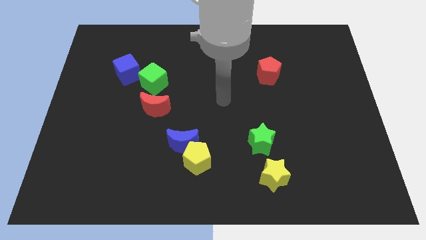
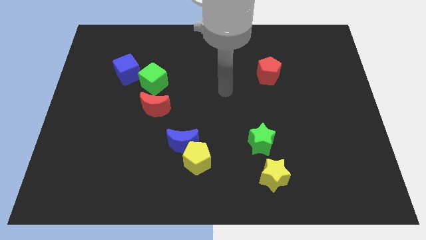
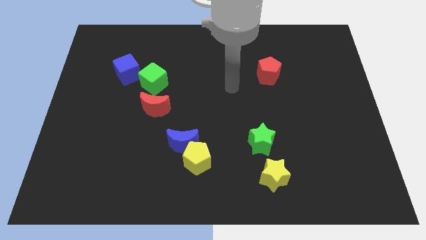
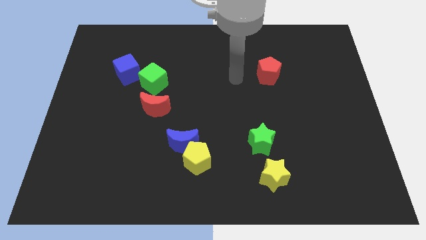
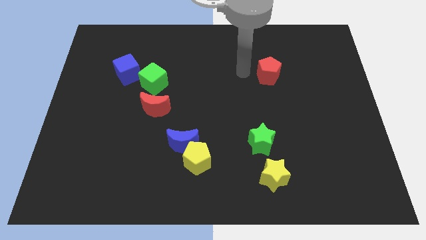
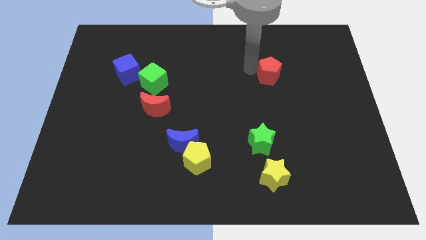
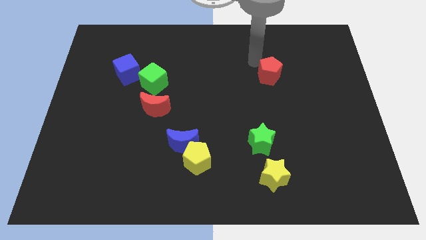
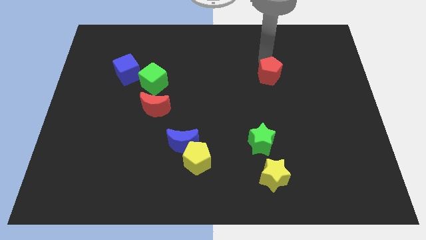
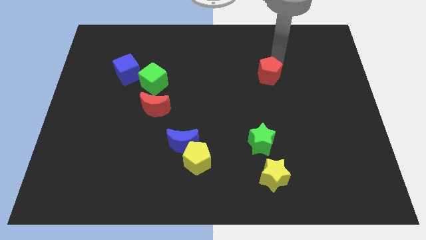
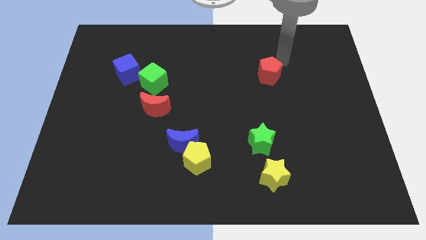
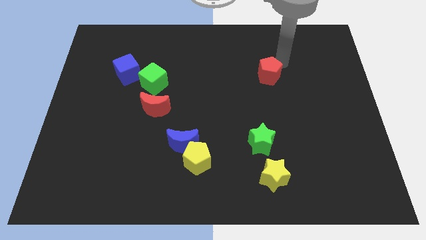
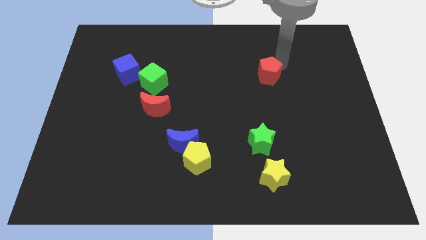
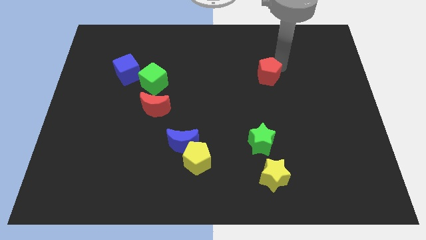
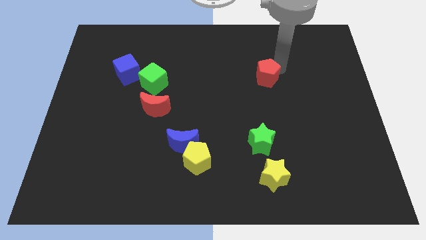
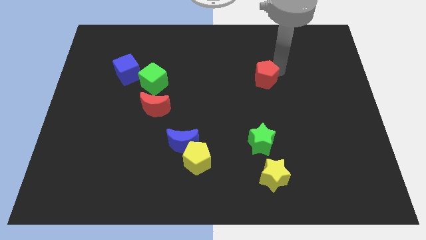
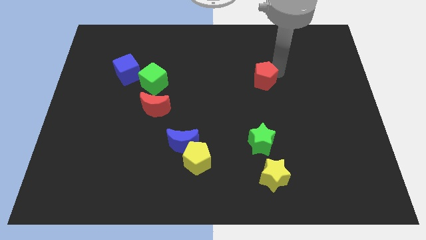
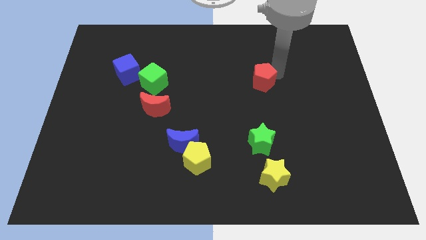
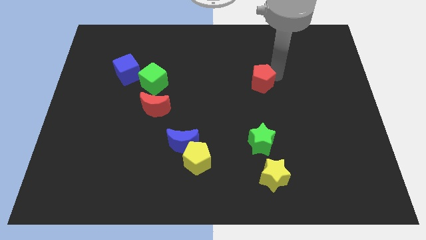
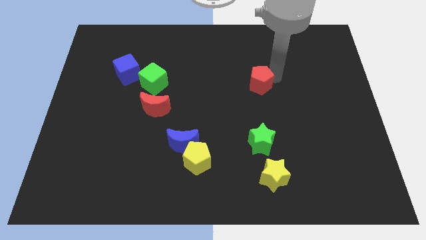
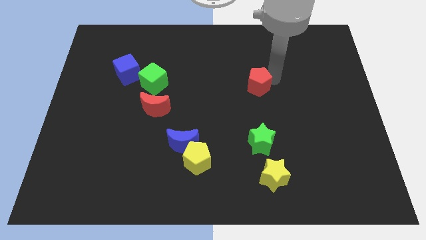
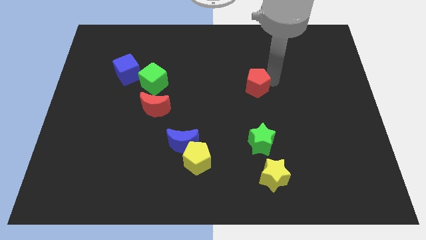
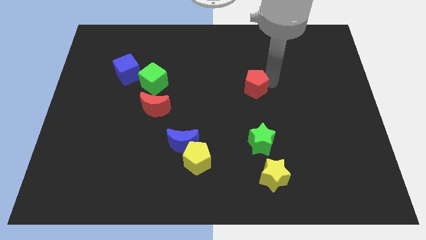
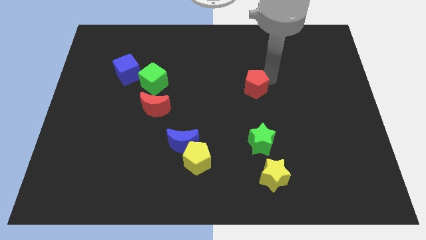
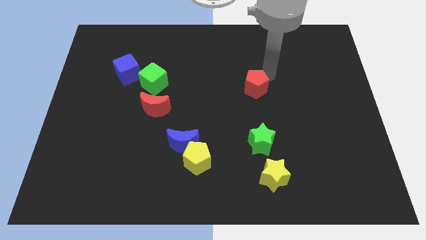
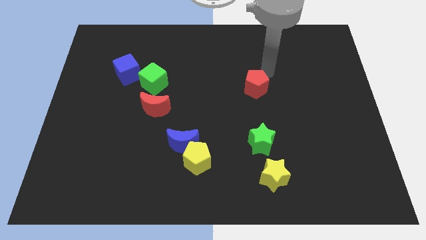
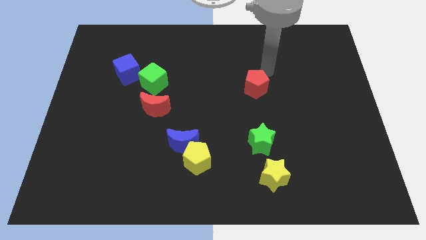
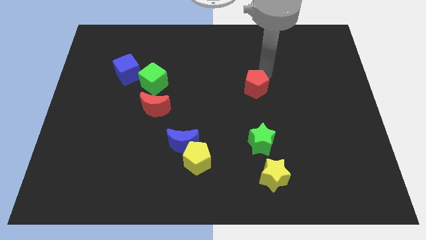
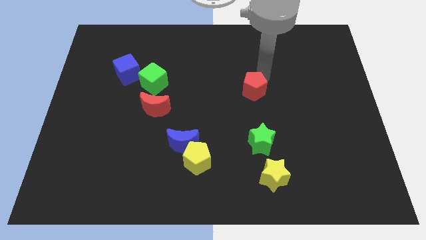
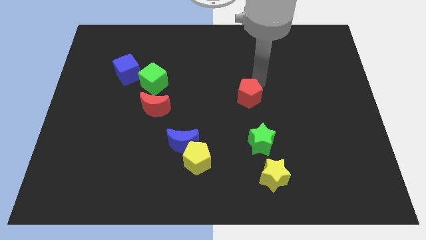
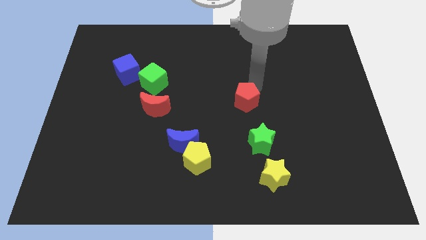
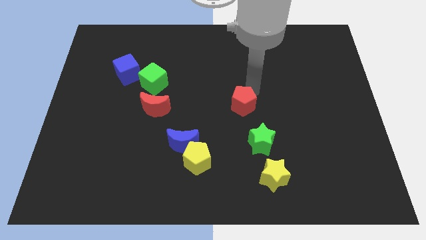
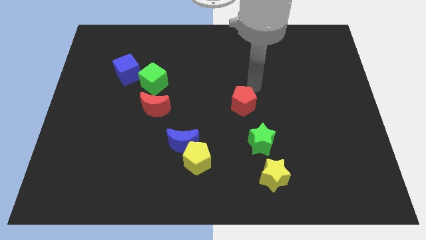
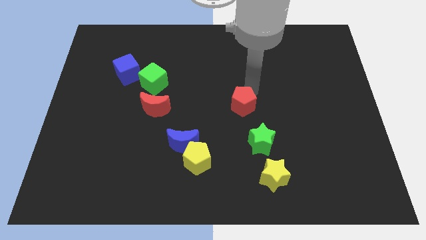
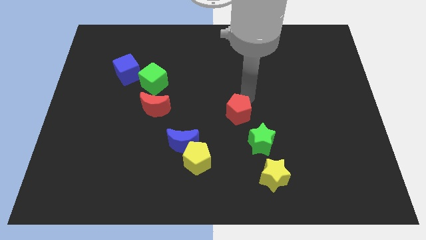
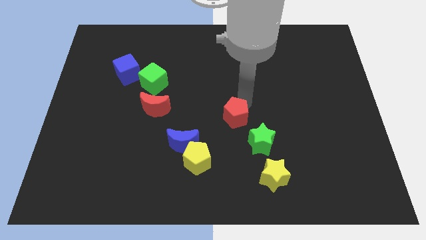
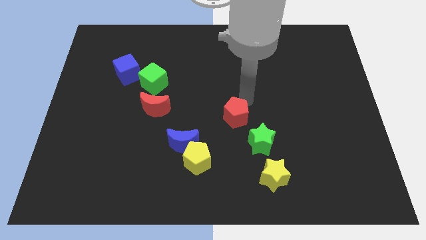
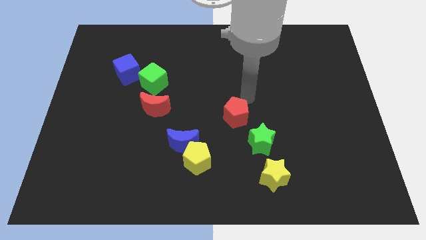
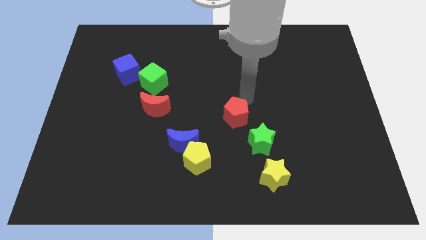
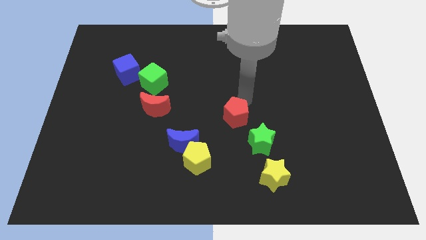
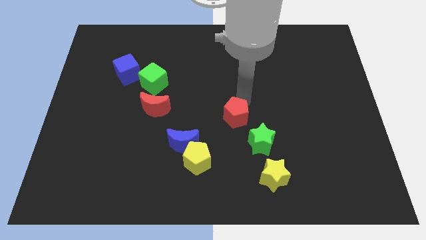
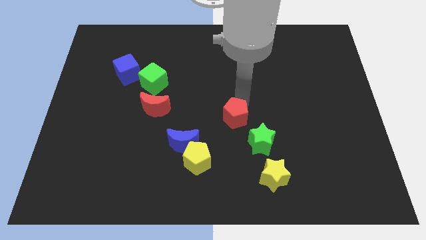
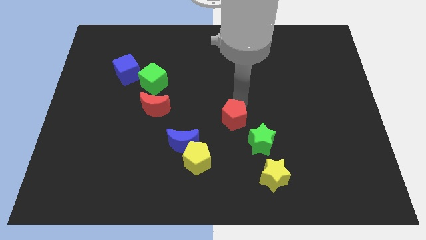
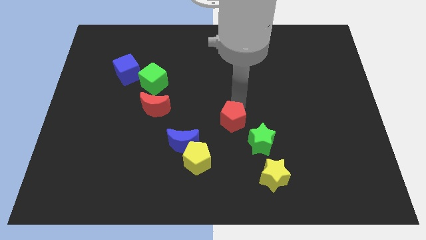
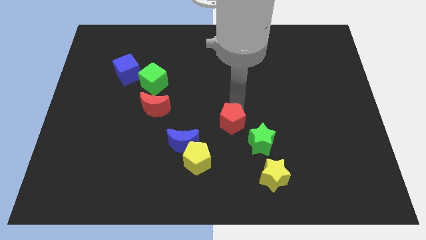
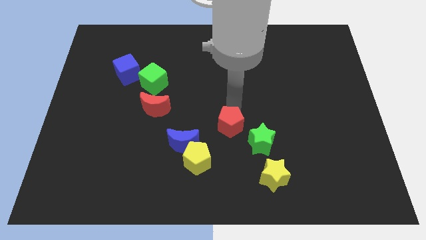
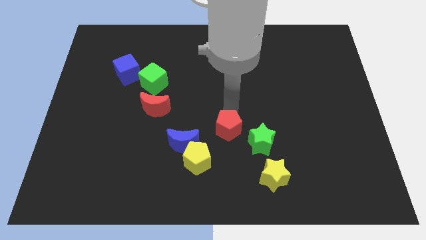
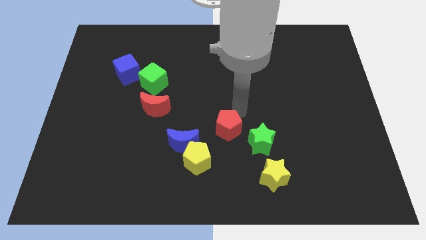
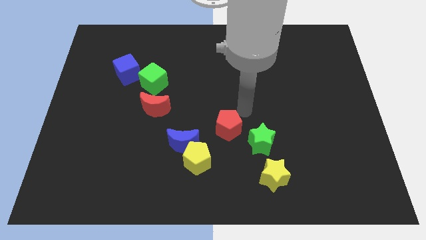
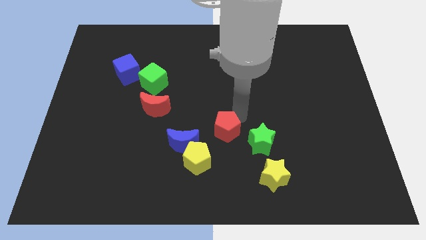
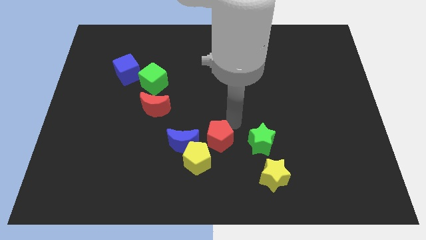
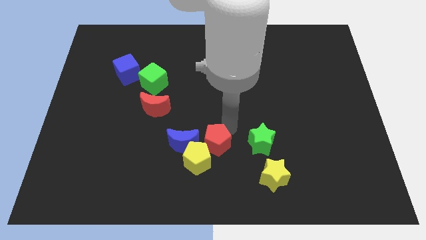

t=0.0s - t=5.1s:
push the red pentagon close to the yellow pentagon

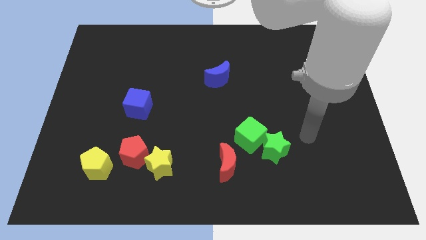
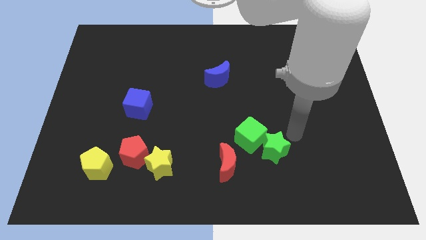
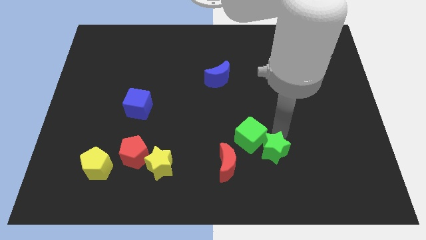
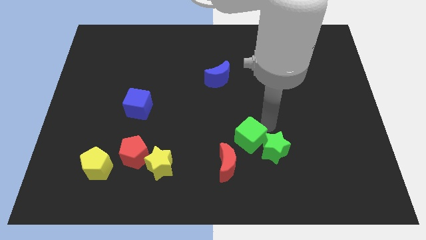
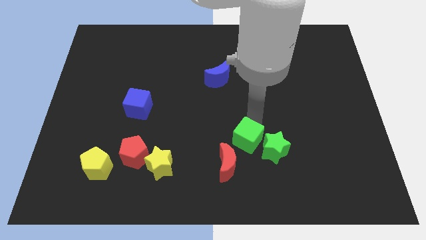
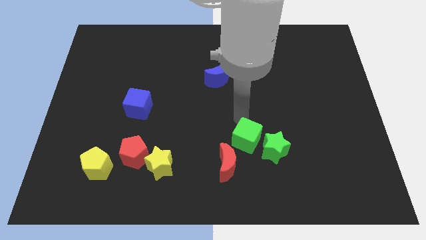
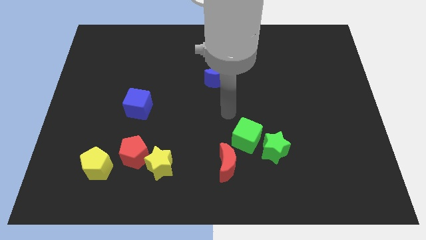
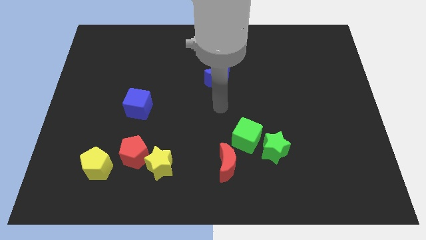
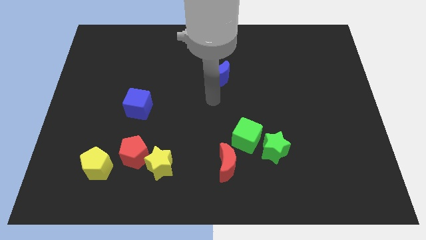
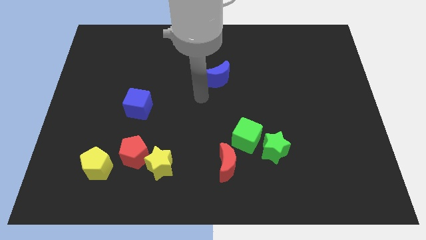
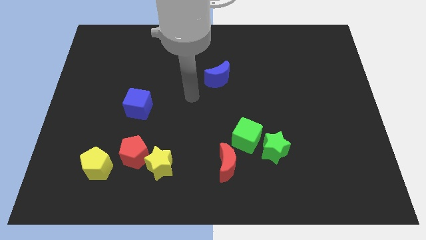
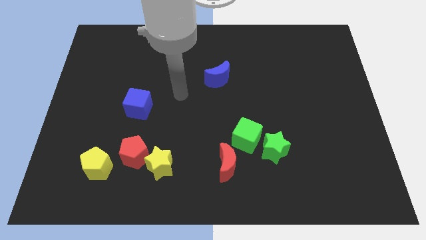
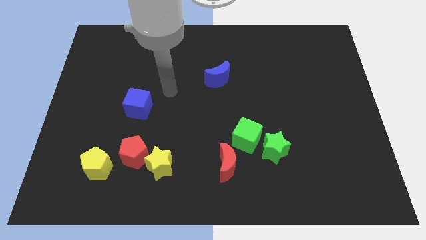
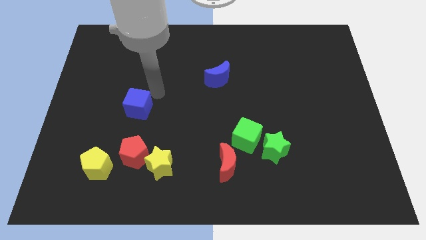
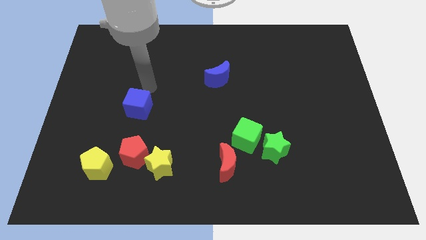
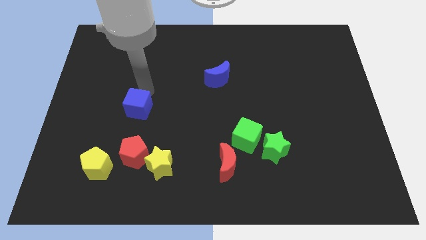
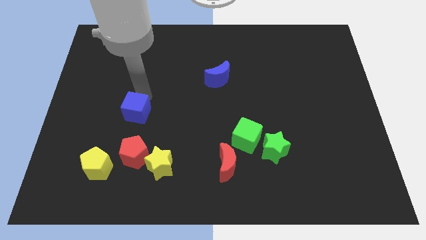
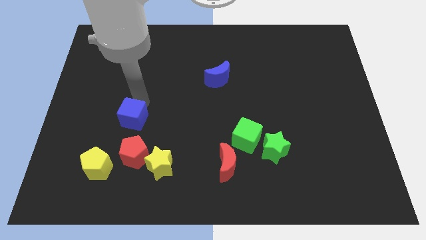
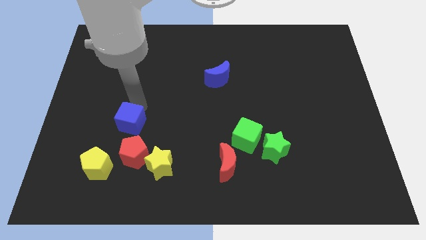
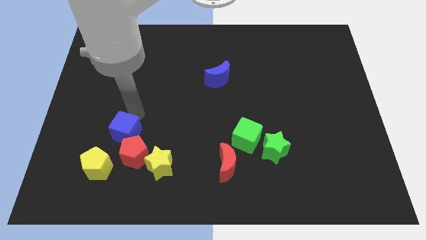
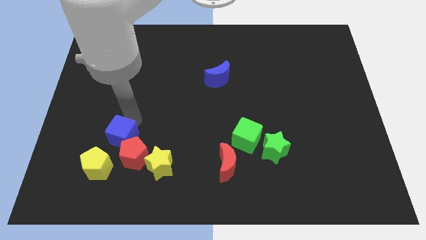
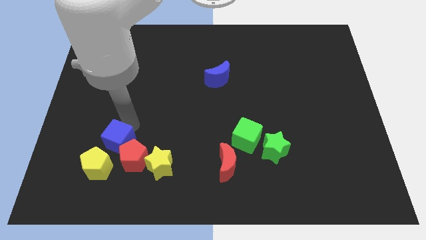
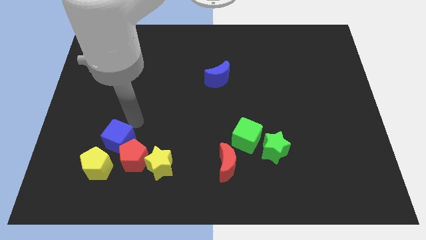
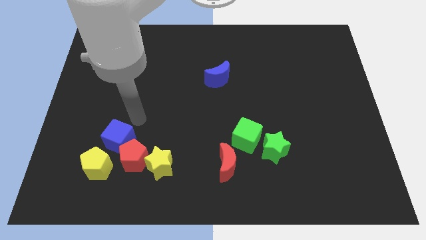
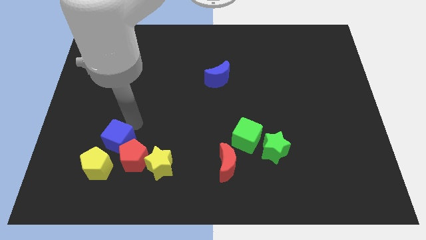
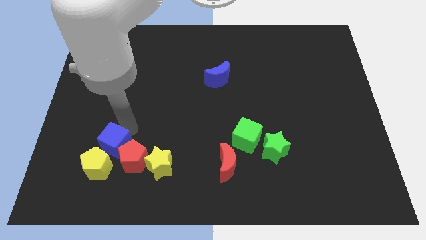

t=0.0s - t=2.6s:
push the blue cube to the yellow pentagon

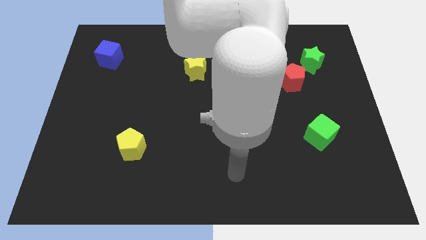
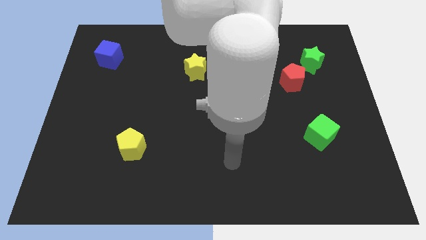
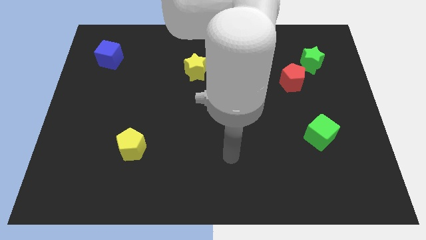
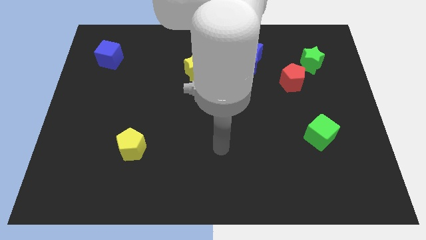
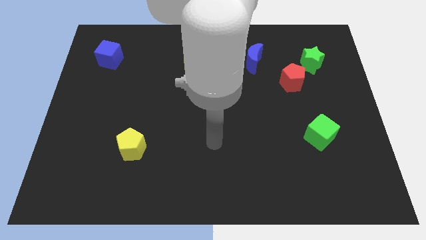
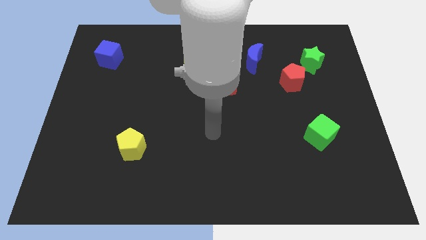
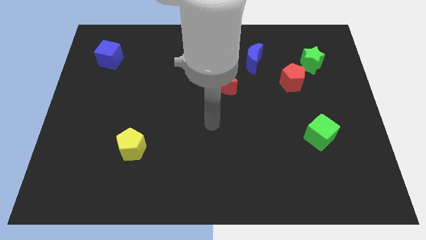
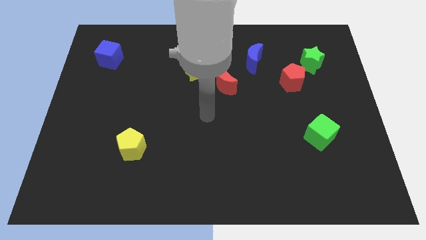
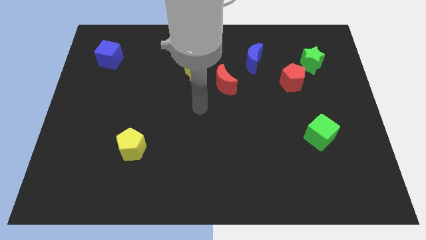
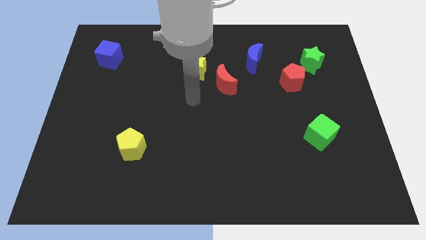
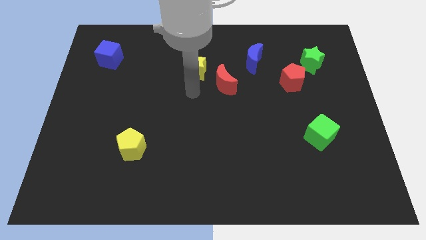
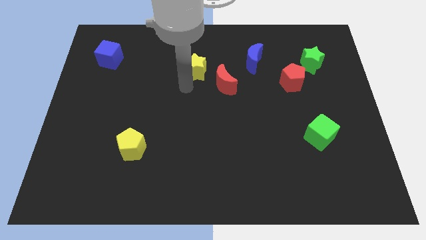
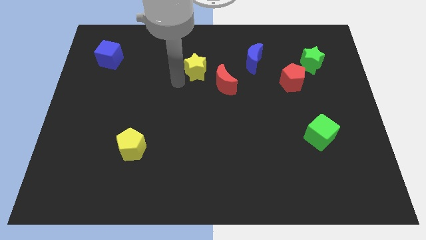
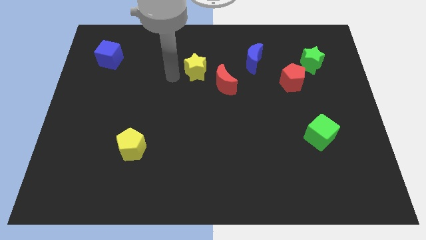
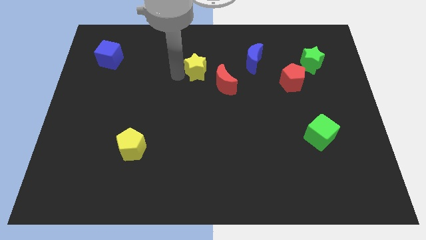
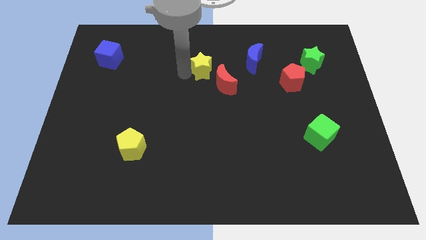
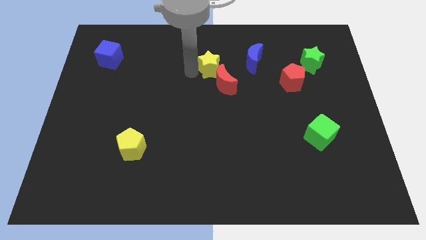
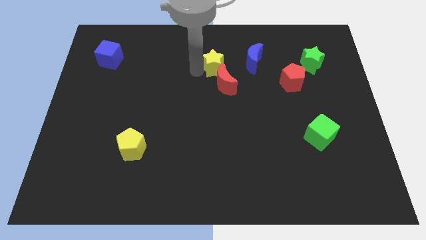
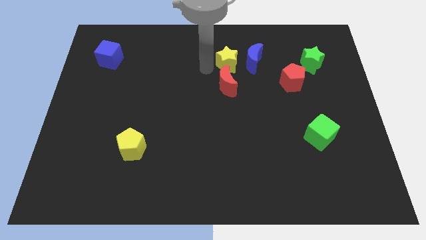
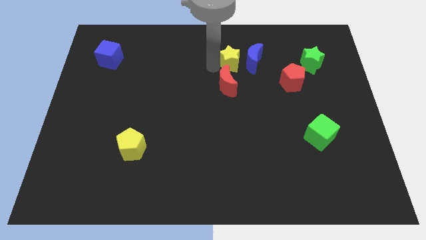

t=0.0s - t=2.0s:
slide the yellow star close to the blue moon
